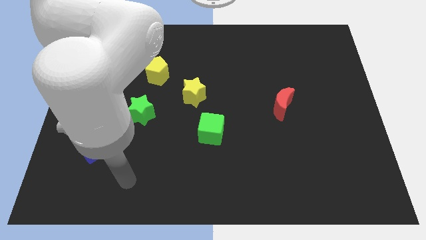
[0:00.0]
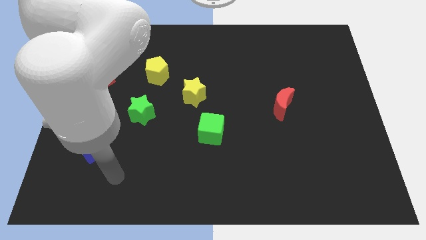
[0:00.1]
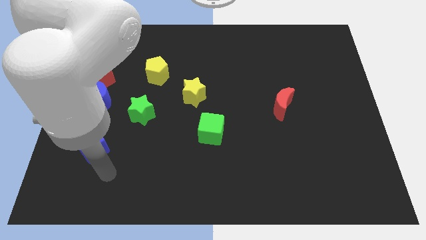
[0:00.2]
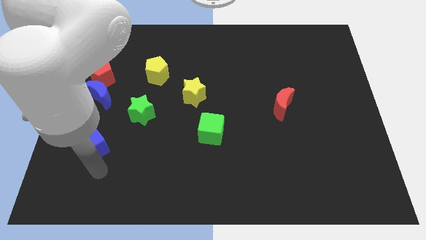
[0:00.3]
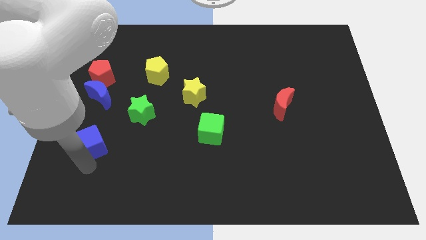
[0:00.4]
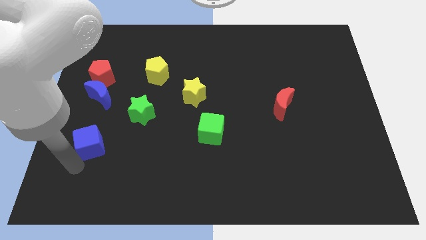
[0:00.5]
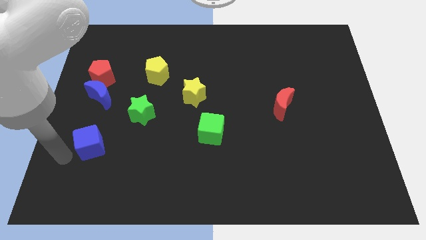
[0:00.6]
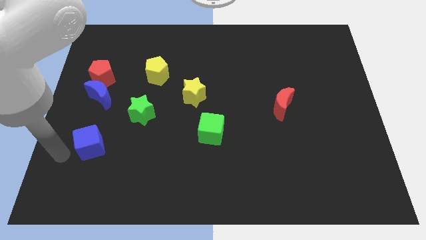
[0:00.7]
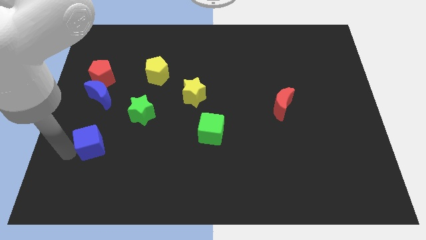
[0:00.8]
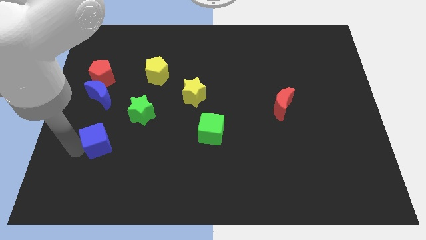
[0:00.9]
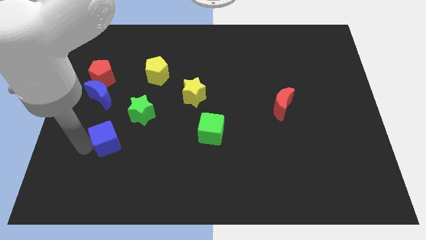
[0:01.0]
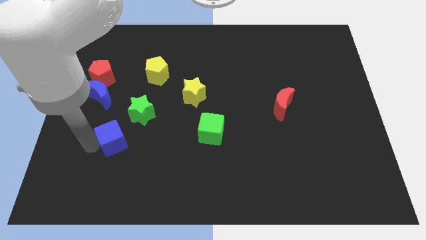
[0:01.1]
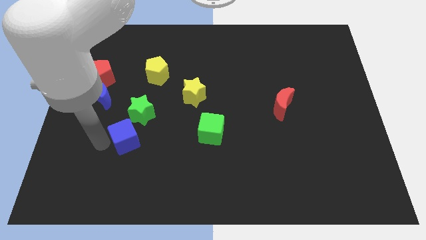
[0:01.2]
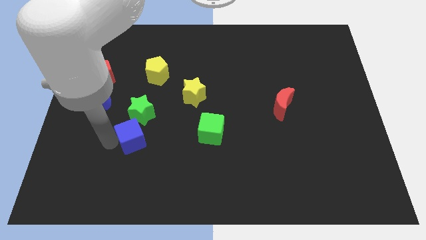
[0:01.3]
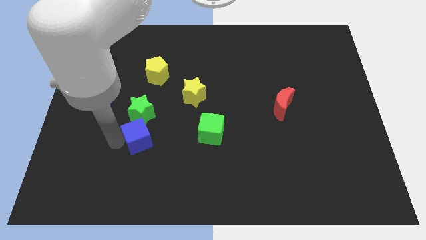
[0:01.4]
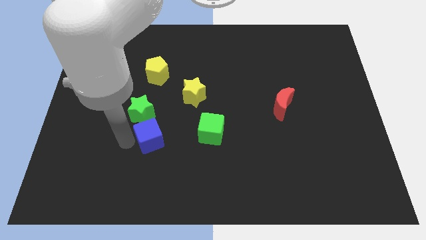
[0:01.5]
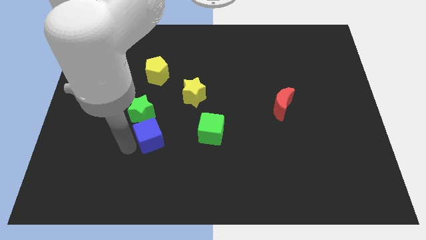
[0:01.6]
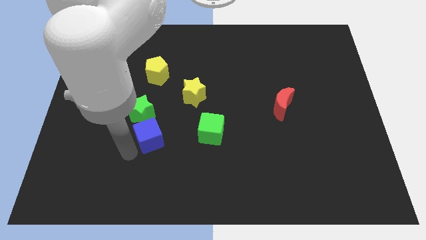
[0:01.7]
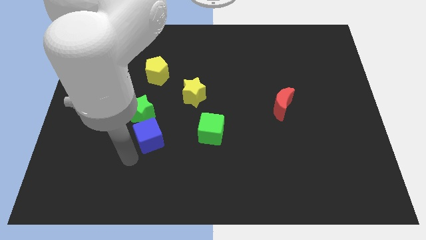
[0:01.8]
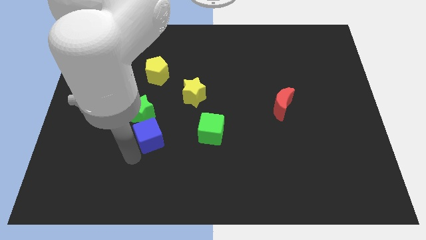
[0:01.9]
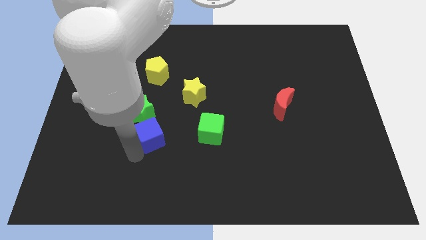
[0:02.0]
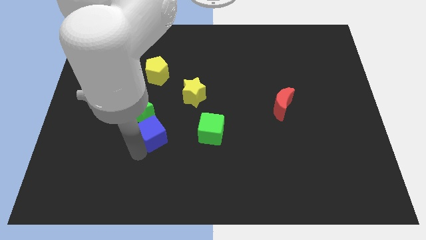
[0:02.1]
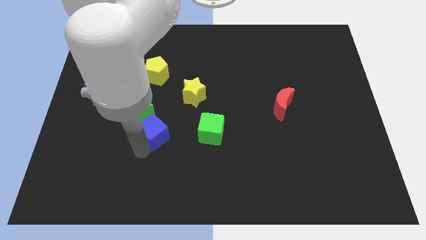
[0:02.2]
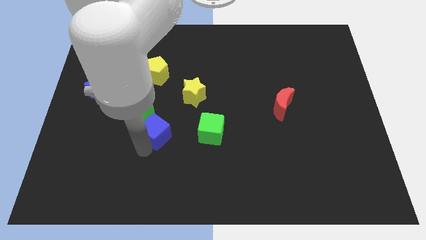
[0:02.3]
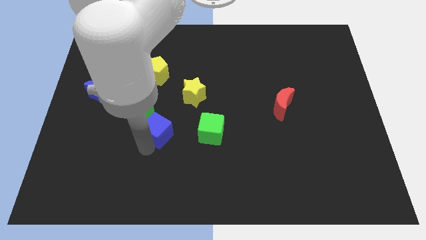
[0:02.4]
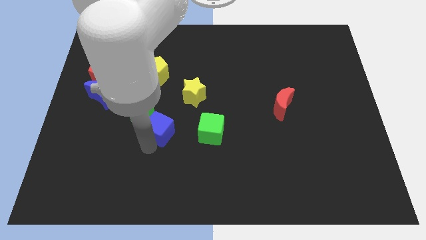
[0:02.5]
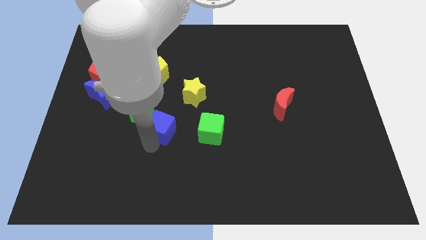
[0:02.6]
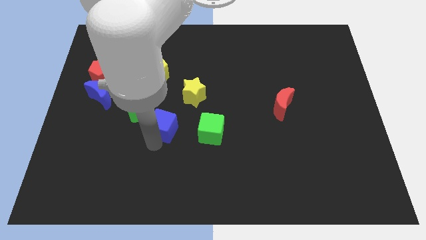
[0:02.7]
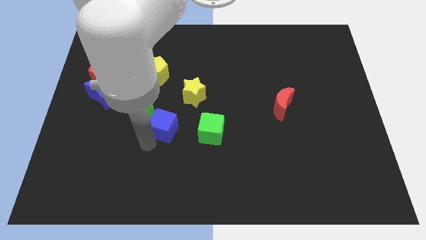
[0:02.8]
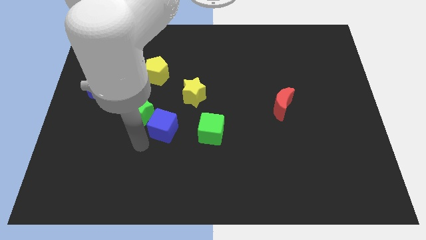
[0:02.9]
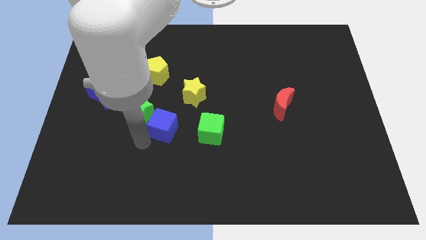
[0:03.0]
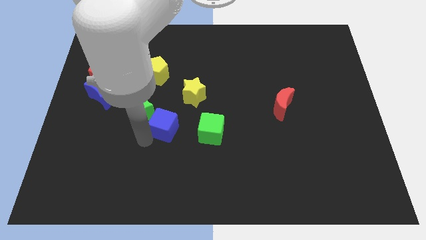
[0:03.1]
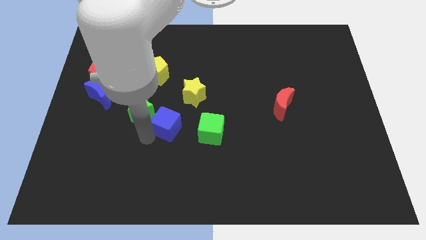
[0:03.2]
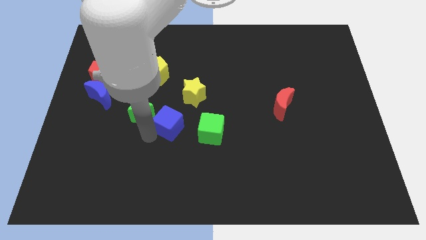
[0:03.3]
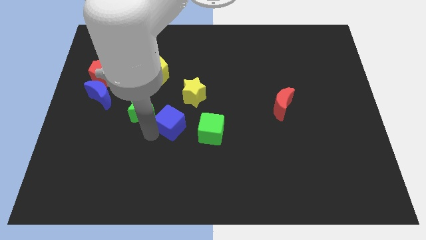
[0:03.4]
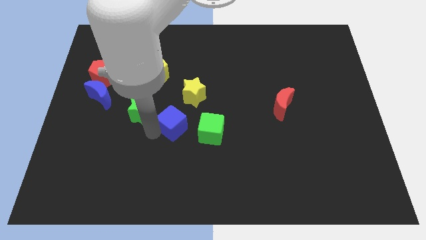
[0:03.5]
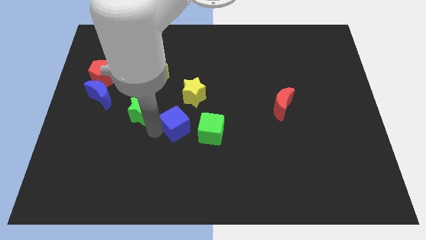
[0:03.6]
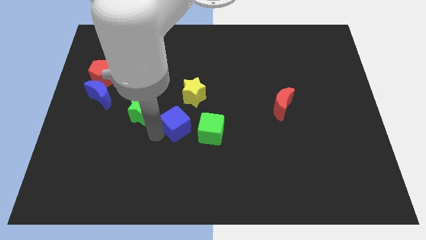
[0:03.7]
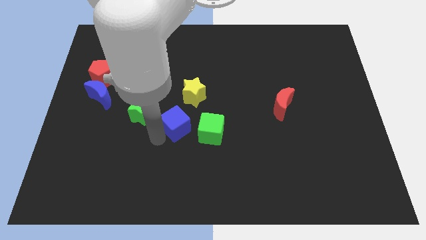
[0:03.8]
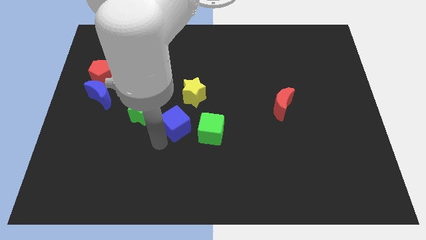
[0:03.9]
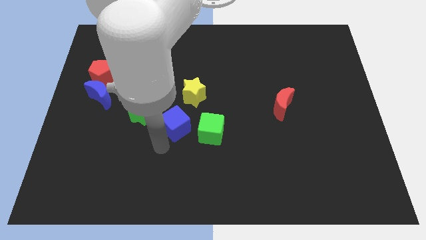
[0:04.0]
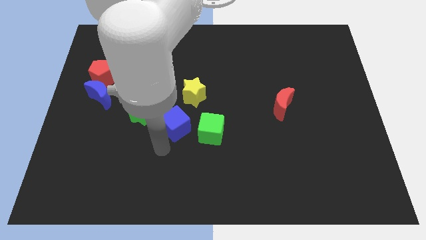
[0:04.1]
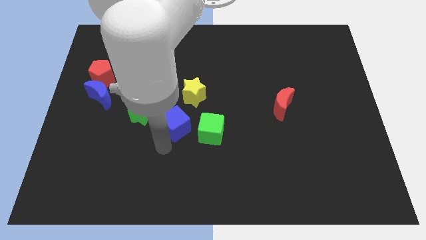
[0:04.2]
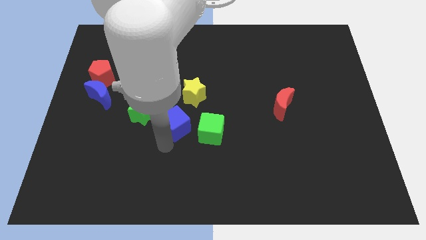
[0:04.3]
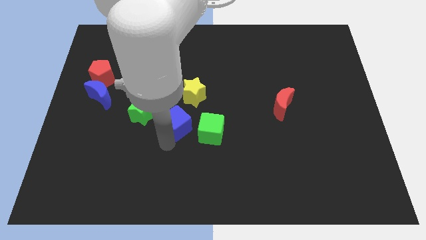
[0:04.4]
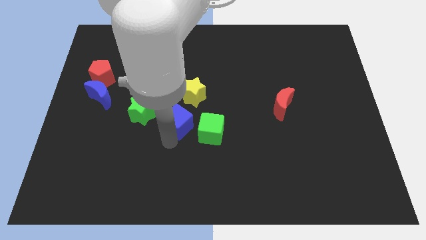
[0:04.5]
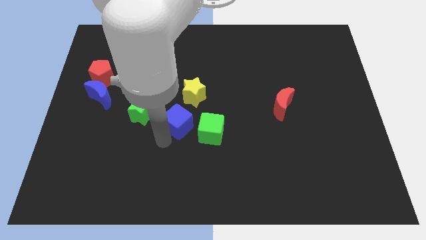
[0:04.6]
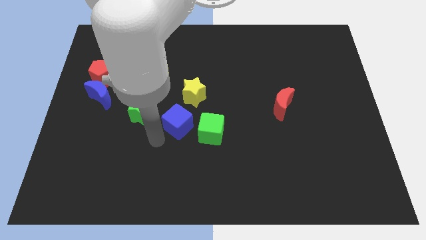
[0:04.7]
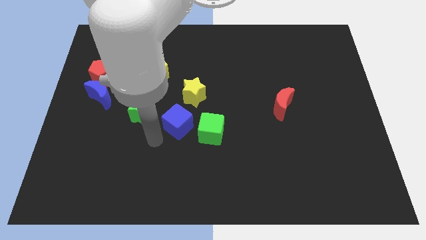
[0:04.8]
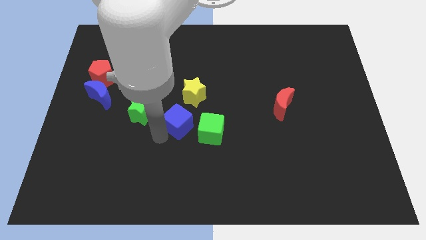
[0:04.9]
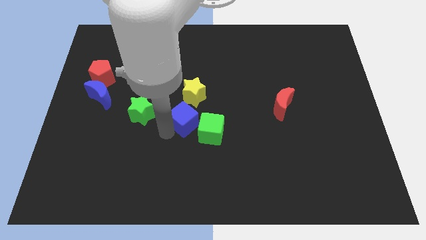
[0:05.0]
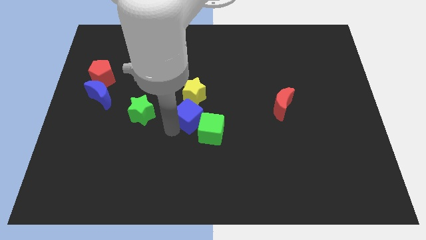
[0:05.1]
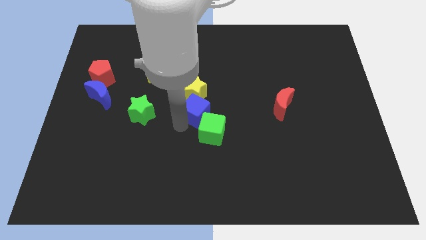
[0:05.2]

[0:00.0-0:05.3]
put the blue cube above the green cube

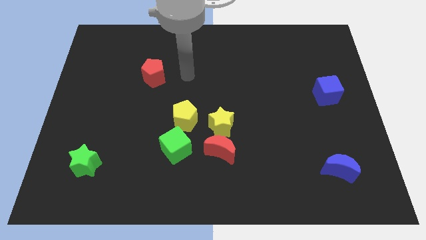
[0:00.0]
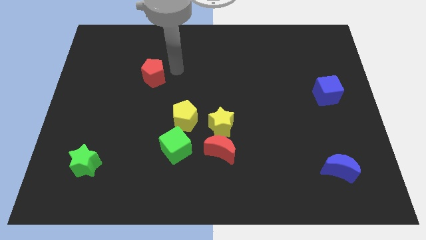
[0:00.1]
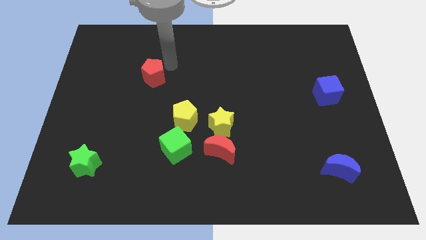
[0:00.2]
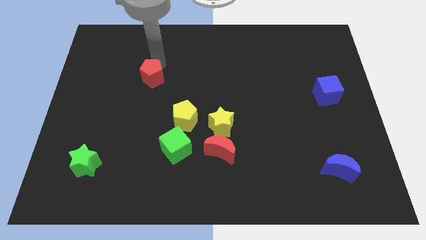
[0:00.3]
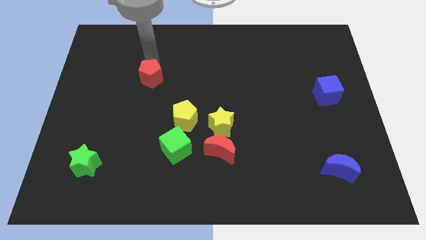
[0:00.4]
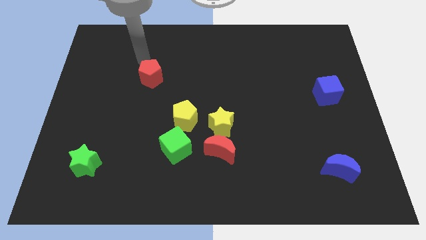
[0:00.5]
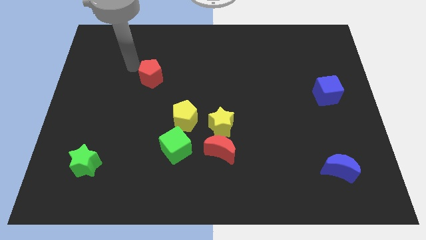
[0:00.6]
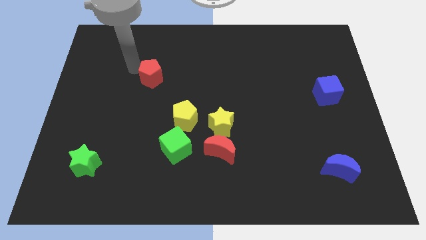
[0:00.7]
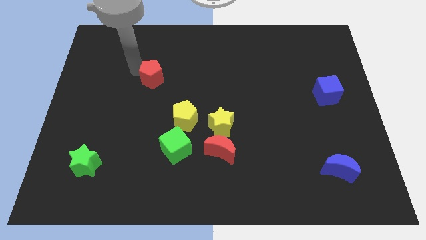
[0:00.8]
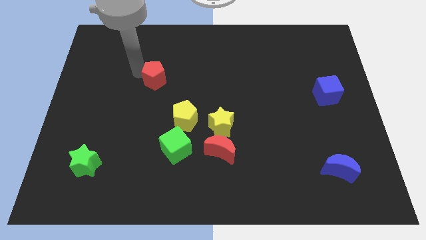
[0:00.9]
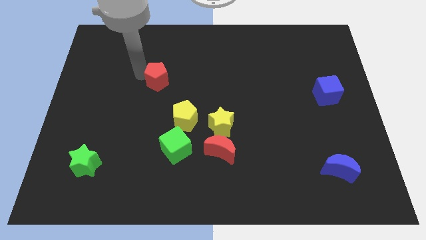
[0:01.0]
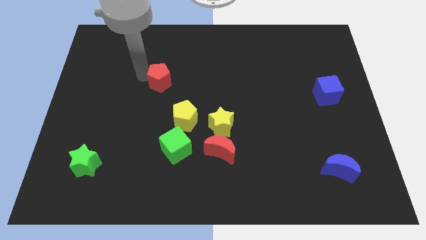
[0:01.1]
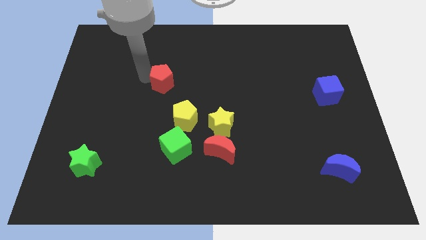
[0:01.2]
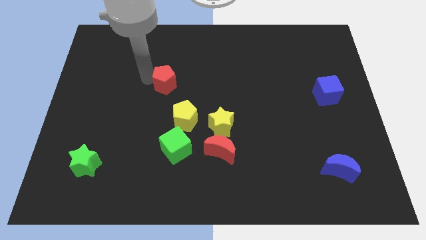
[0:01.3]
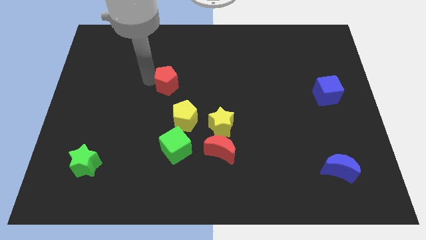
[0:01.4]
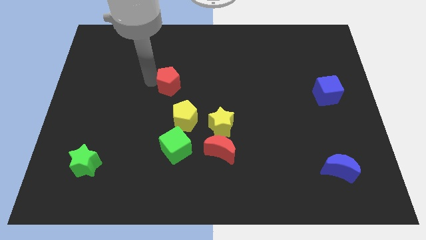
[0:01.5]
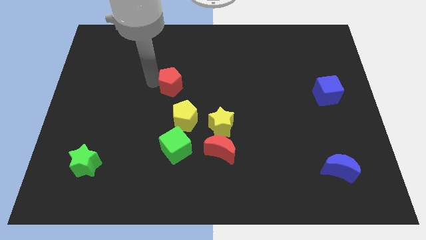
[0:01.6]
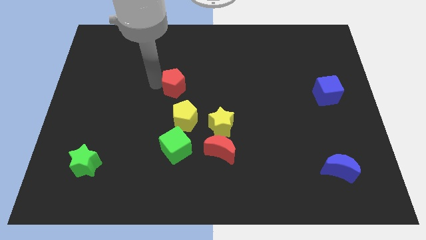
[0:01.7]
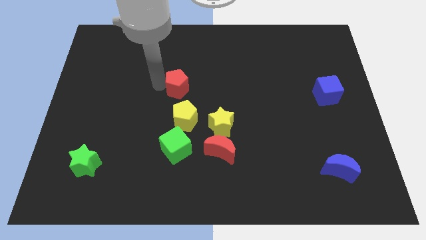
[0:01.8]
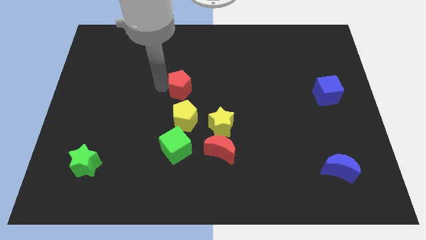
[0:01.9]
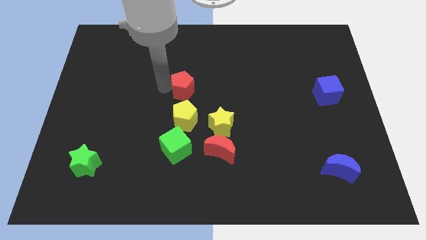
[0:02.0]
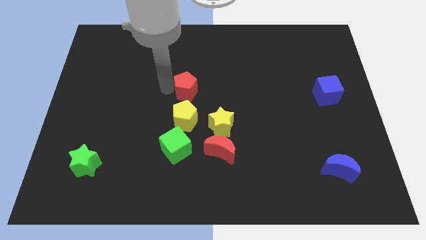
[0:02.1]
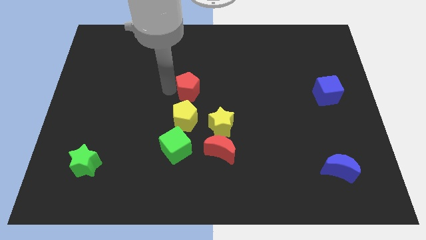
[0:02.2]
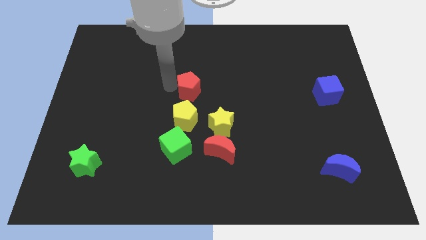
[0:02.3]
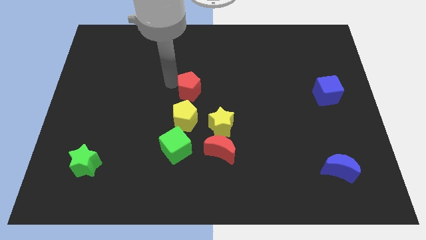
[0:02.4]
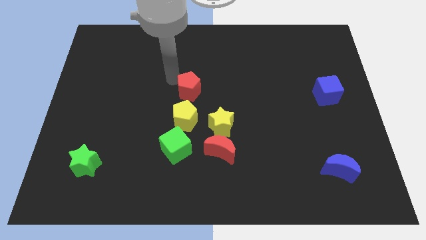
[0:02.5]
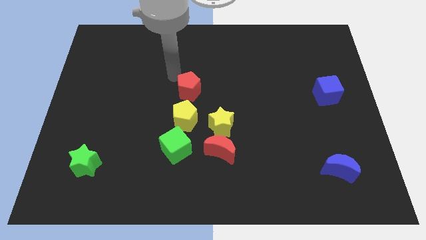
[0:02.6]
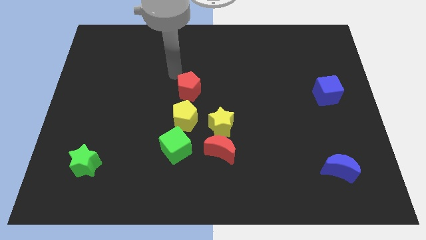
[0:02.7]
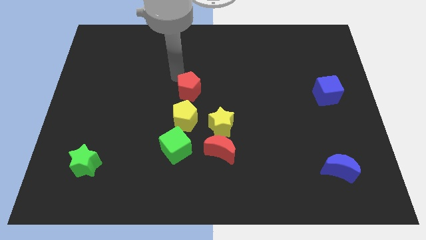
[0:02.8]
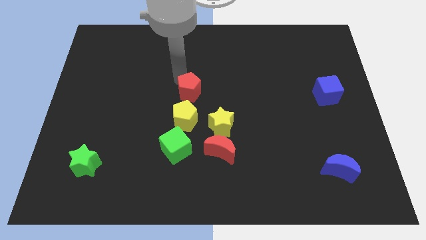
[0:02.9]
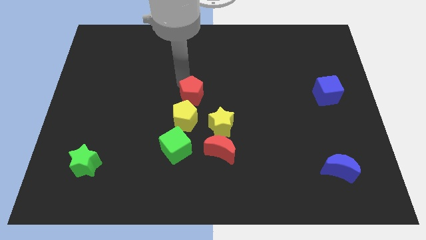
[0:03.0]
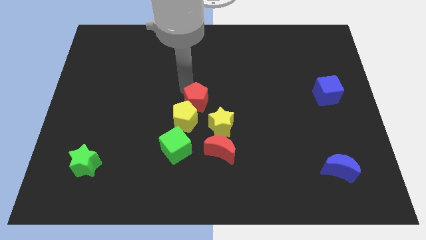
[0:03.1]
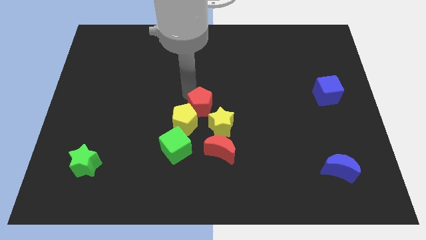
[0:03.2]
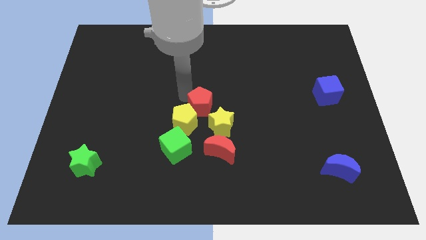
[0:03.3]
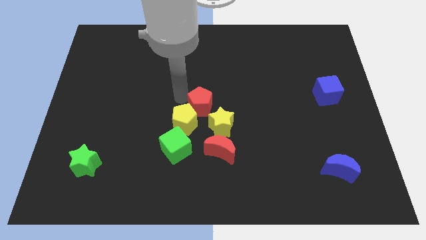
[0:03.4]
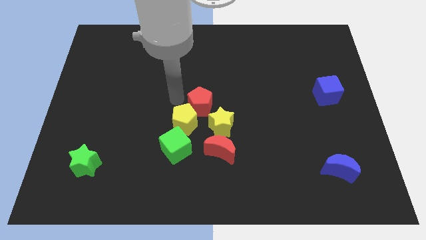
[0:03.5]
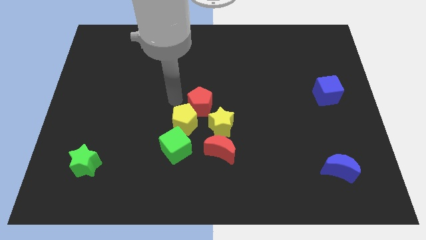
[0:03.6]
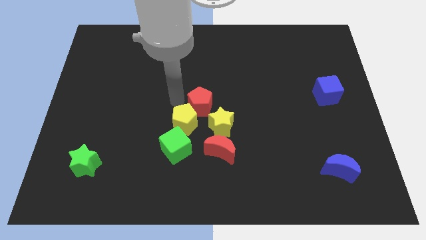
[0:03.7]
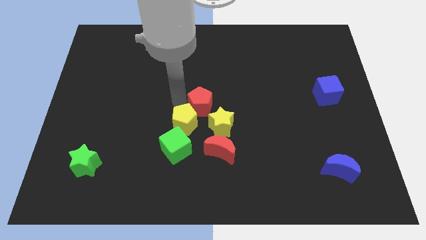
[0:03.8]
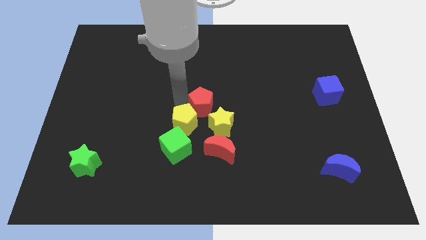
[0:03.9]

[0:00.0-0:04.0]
push the red pentagon right of the yellow pentagon
